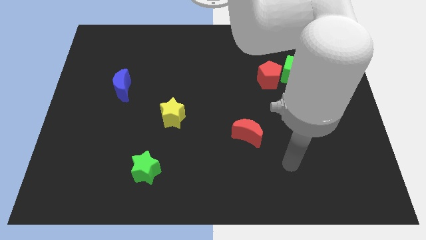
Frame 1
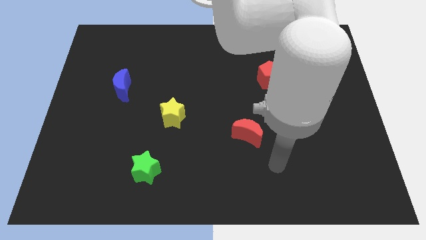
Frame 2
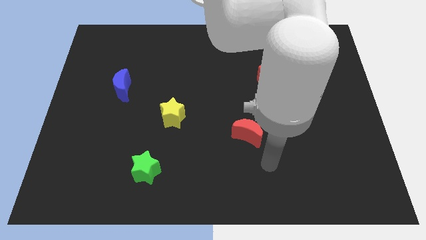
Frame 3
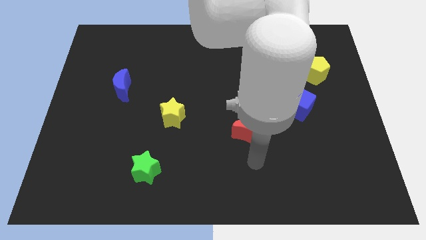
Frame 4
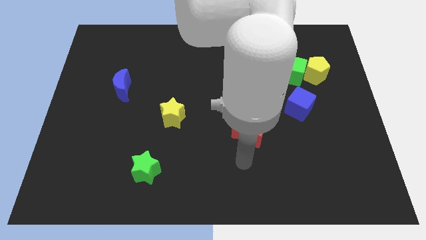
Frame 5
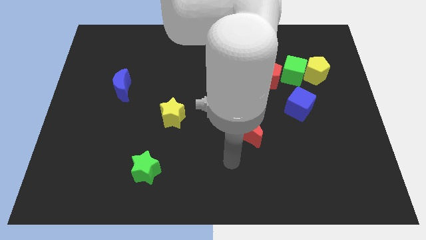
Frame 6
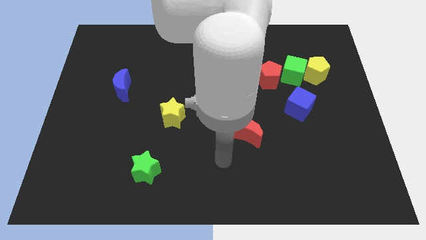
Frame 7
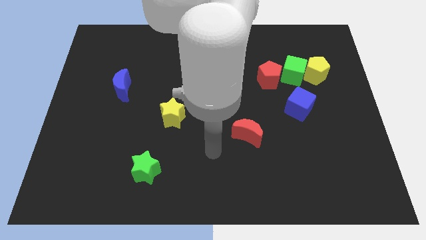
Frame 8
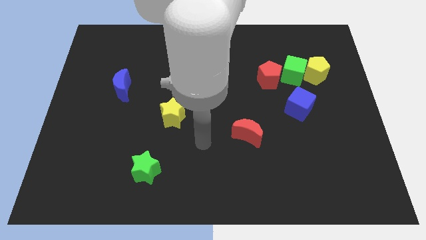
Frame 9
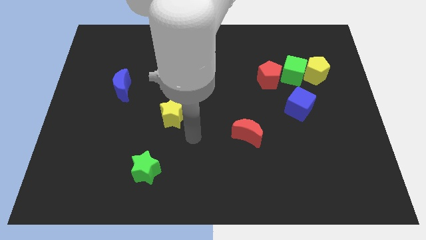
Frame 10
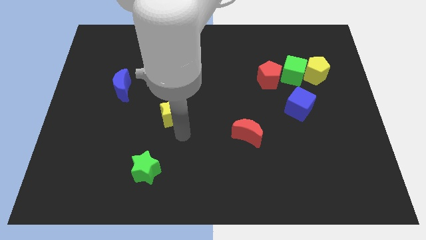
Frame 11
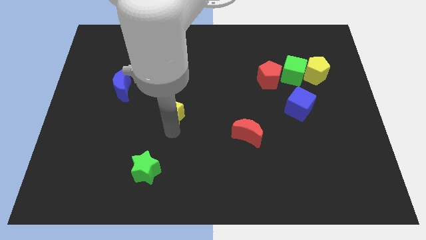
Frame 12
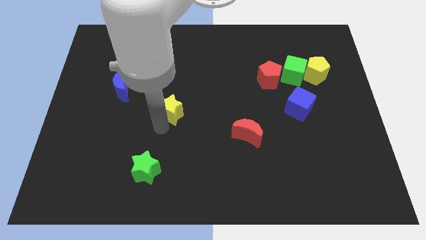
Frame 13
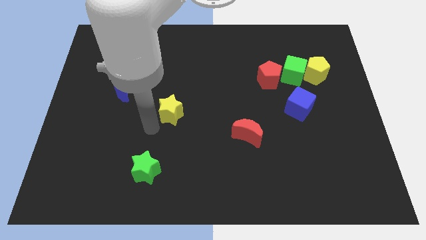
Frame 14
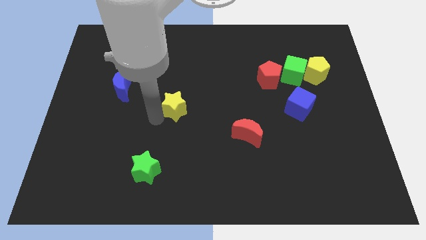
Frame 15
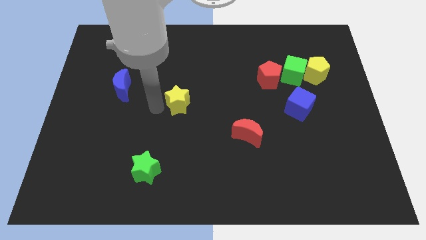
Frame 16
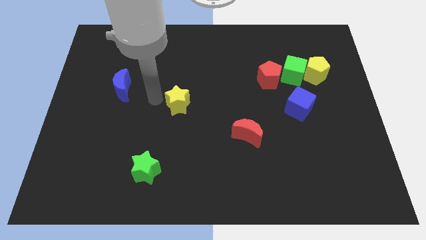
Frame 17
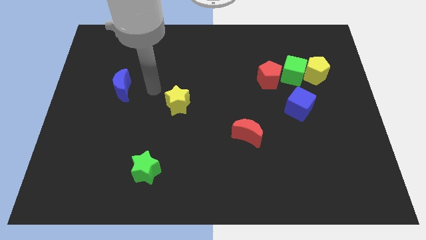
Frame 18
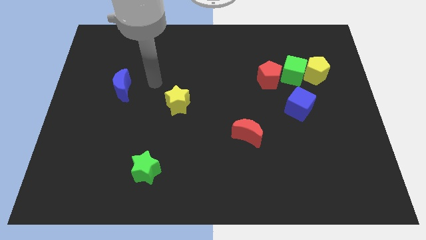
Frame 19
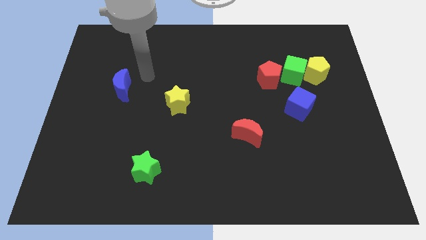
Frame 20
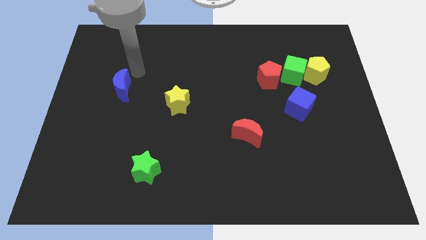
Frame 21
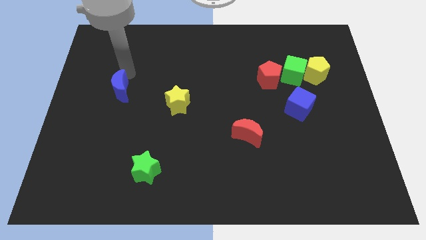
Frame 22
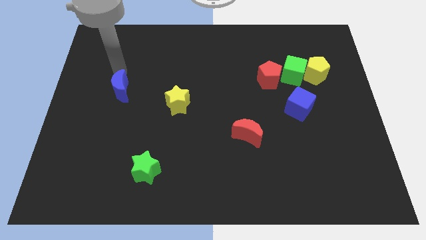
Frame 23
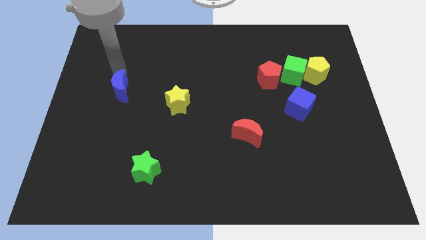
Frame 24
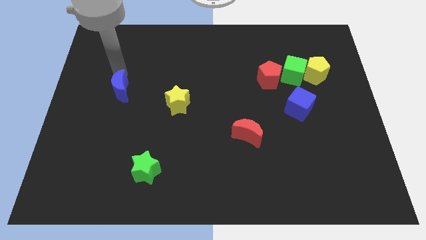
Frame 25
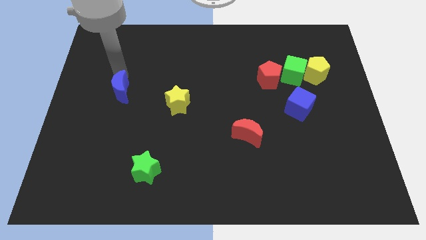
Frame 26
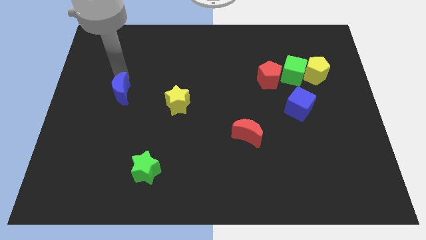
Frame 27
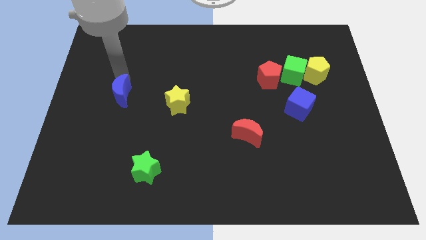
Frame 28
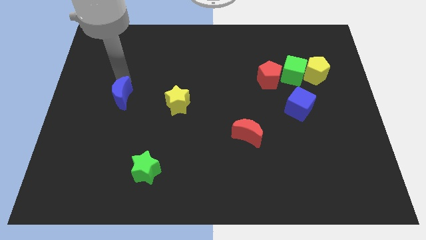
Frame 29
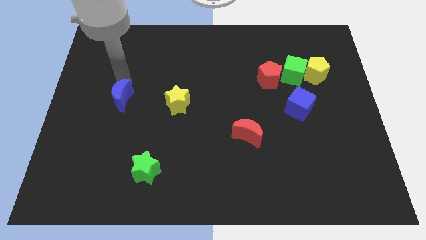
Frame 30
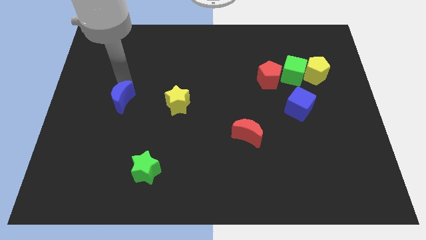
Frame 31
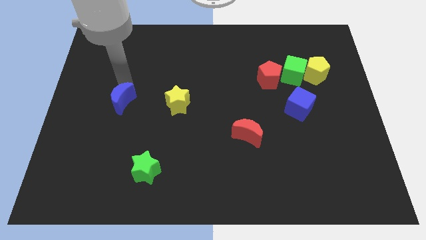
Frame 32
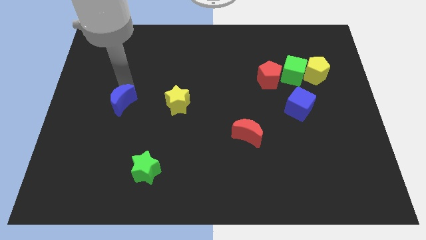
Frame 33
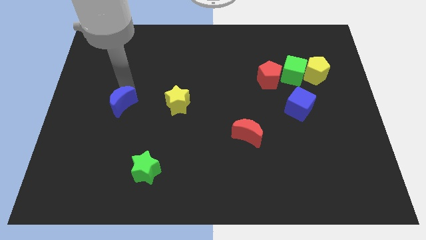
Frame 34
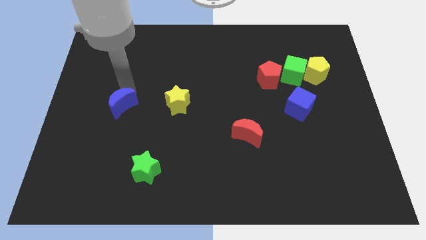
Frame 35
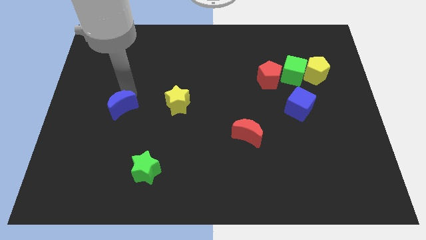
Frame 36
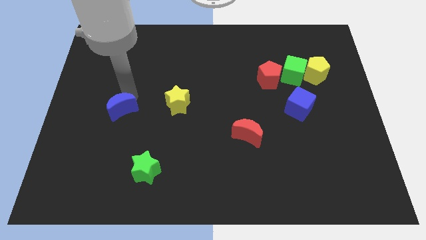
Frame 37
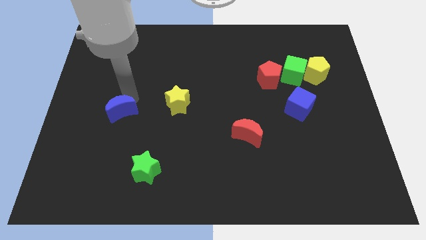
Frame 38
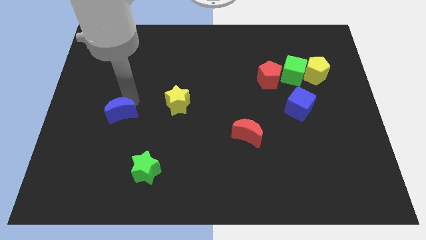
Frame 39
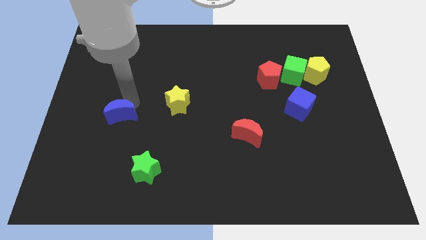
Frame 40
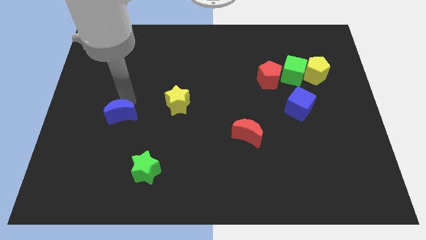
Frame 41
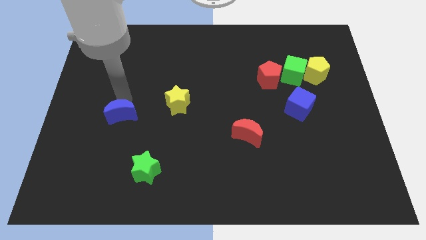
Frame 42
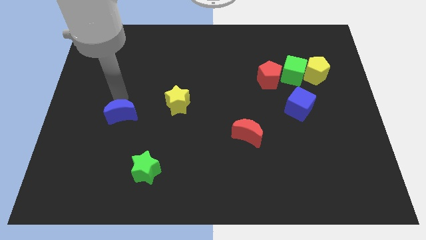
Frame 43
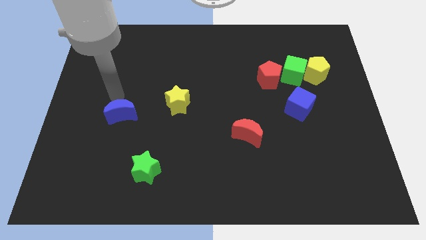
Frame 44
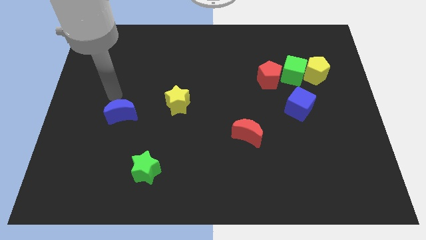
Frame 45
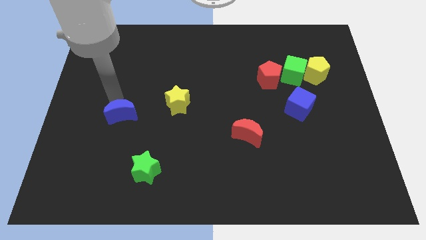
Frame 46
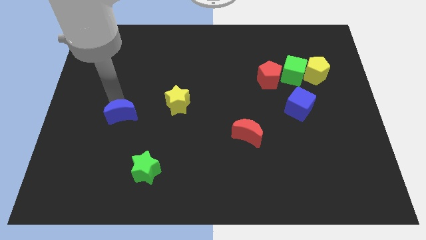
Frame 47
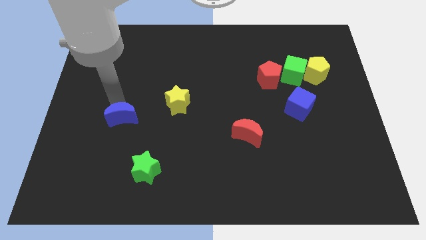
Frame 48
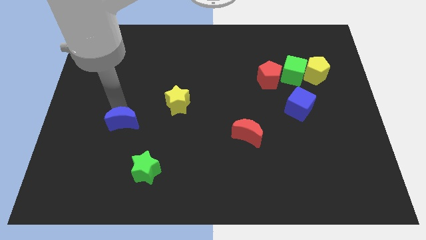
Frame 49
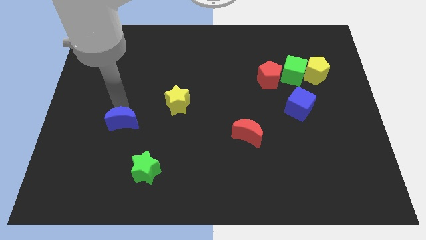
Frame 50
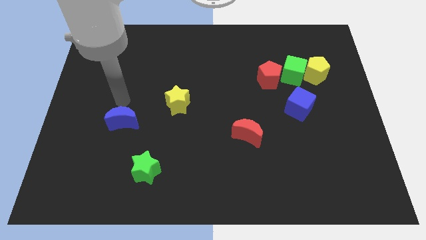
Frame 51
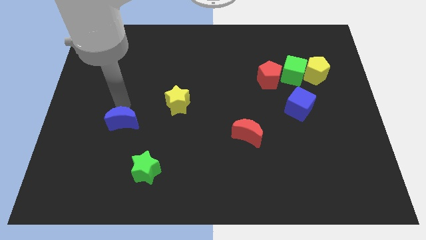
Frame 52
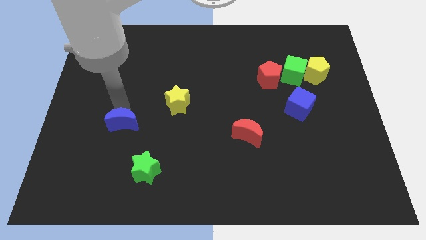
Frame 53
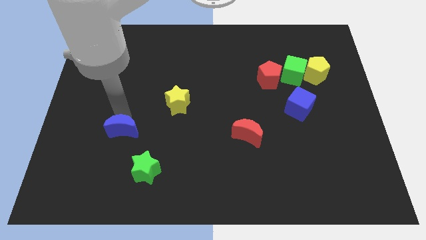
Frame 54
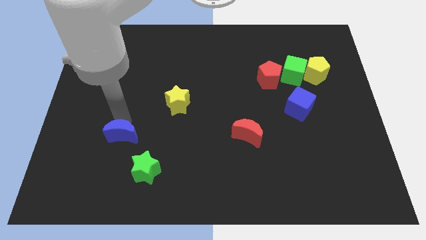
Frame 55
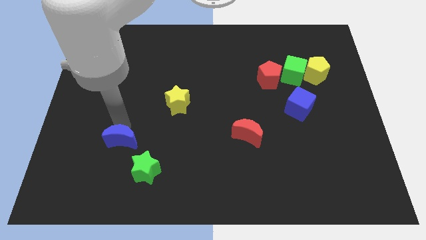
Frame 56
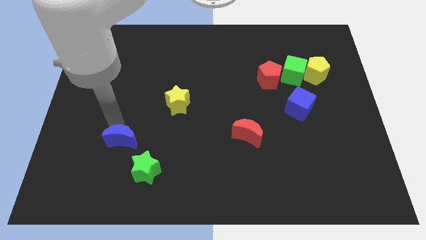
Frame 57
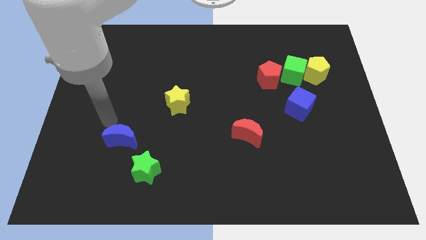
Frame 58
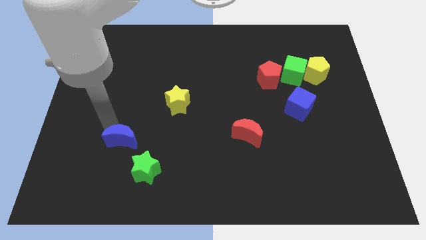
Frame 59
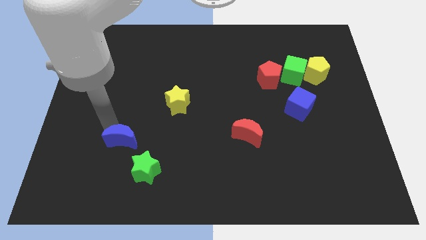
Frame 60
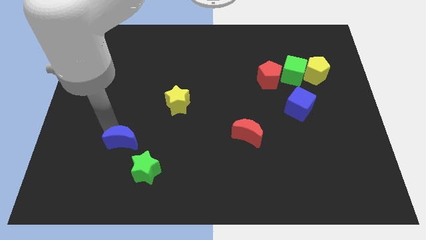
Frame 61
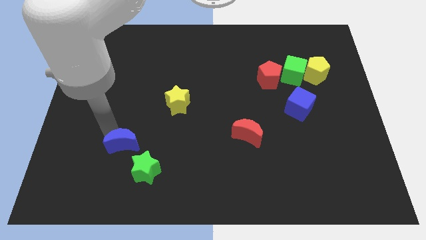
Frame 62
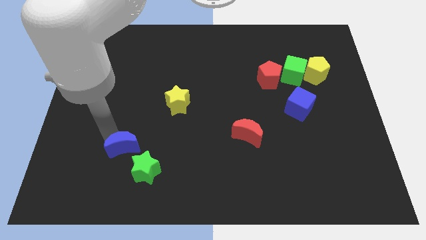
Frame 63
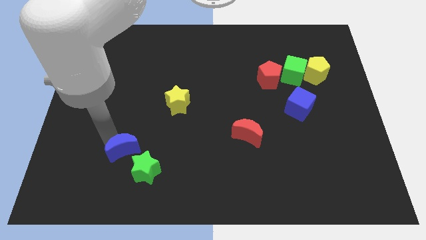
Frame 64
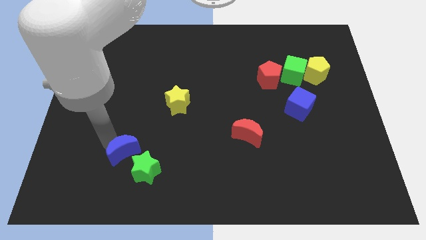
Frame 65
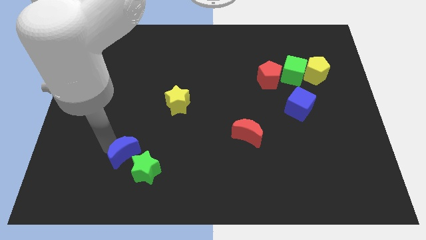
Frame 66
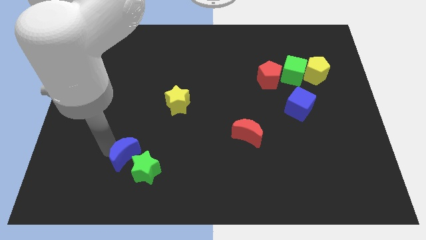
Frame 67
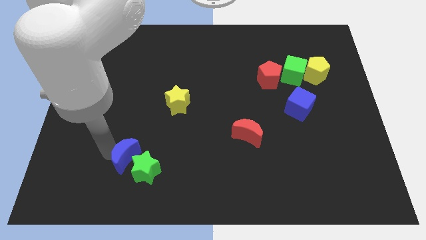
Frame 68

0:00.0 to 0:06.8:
put the blue moon towards the green star

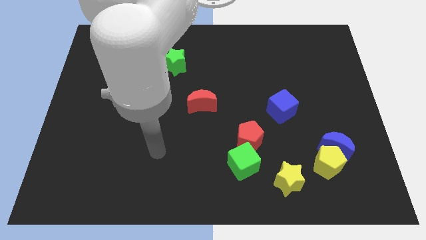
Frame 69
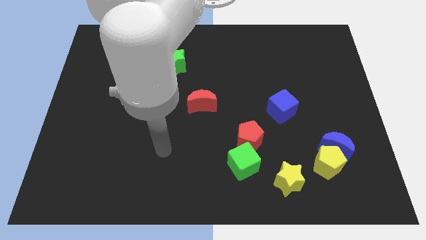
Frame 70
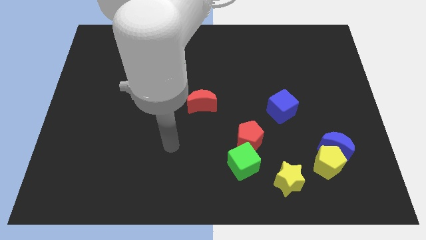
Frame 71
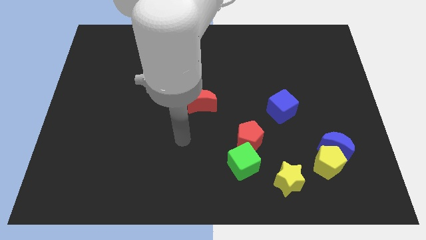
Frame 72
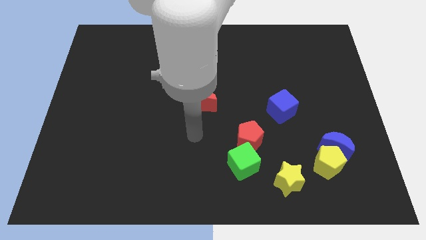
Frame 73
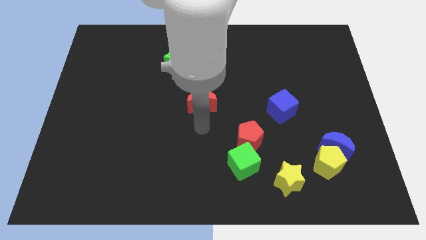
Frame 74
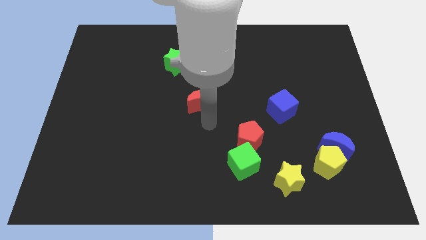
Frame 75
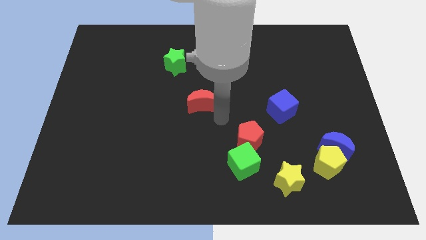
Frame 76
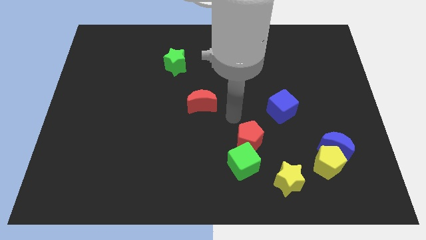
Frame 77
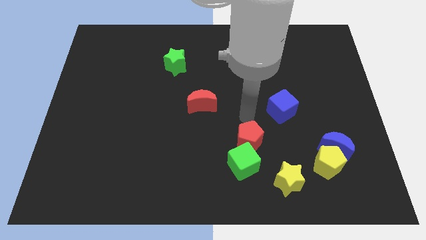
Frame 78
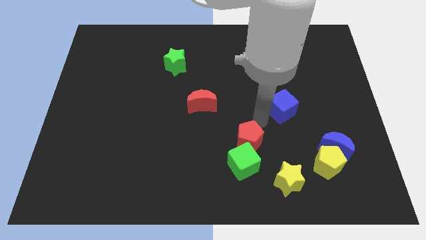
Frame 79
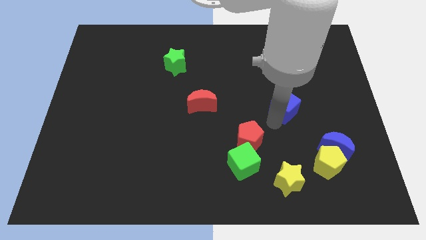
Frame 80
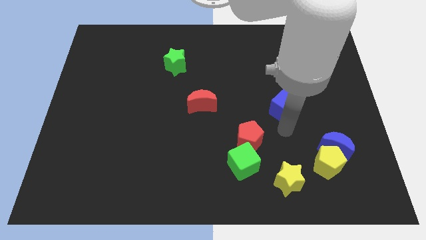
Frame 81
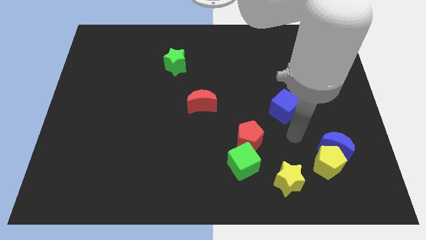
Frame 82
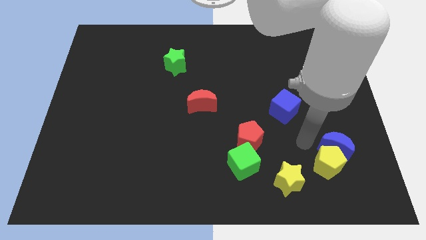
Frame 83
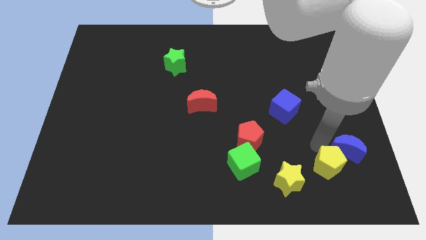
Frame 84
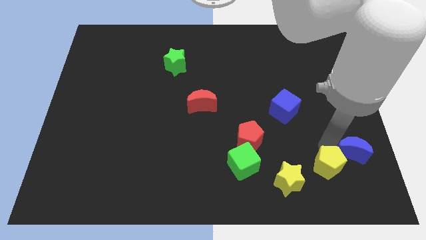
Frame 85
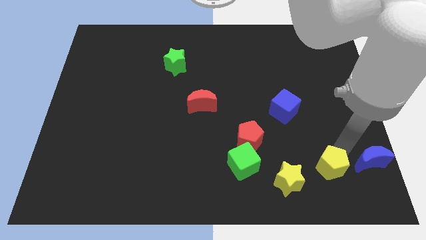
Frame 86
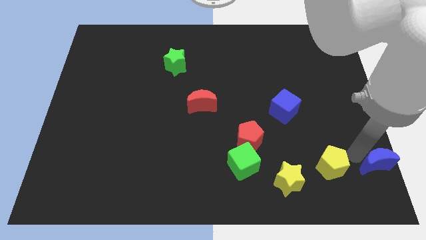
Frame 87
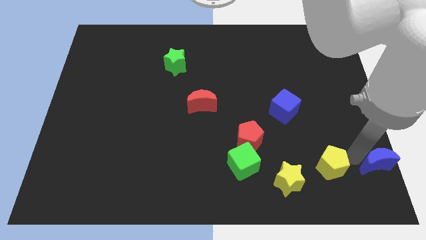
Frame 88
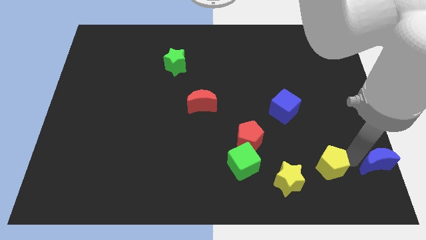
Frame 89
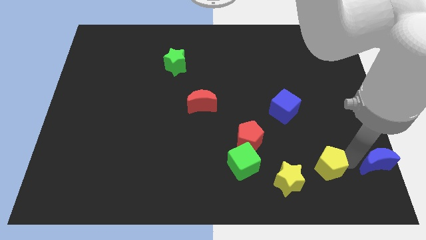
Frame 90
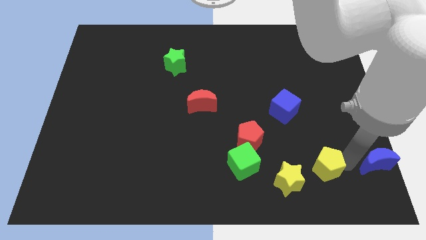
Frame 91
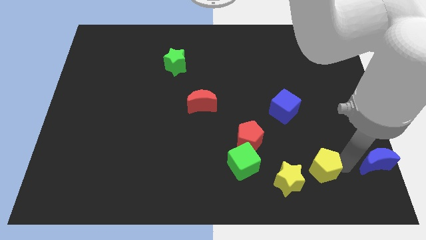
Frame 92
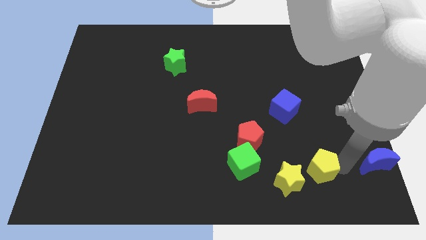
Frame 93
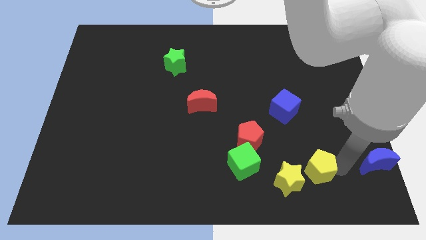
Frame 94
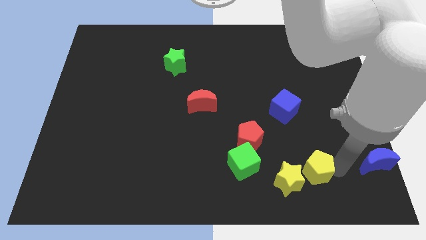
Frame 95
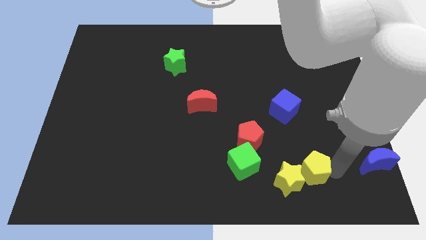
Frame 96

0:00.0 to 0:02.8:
push the yellow pentagon towards the yellow star
